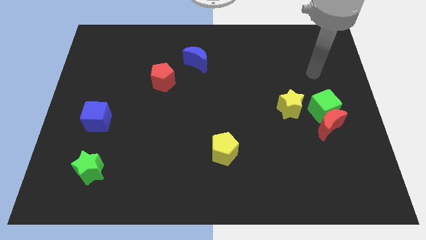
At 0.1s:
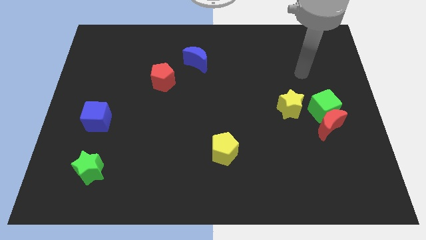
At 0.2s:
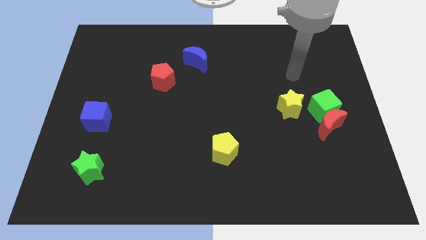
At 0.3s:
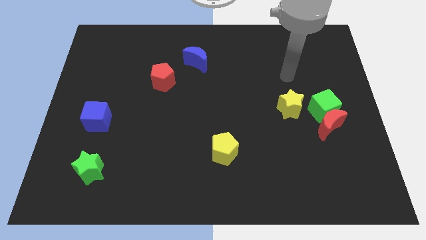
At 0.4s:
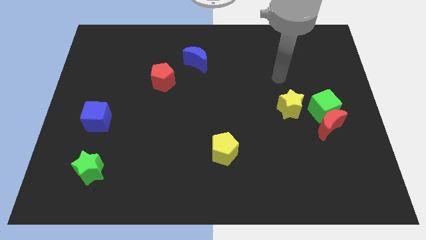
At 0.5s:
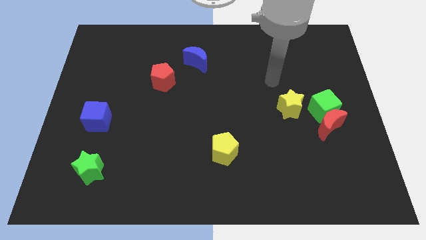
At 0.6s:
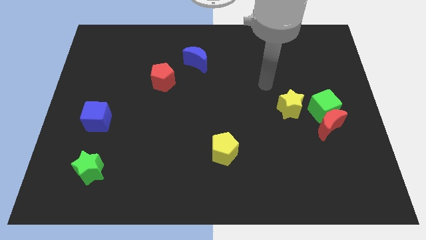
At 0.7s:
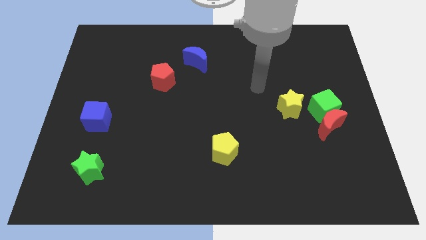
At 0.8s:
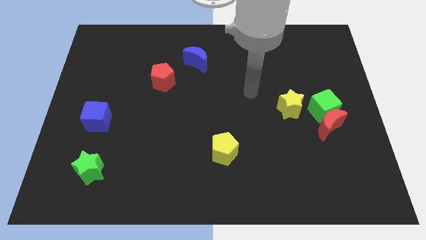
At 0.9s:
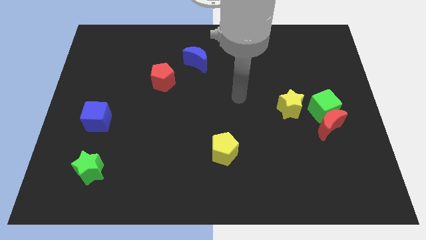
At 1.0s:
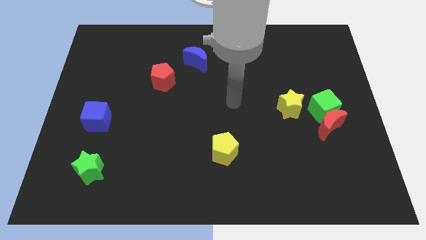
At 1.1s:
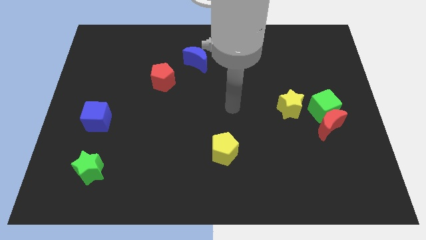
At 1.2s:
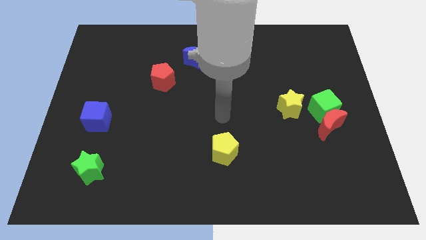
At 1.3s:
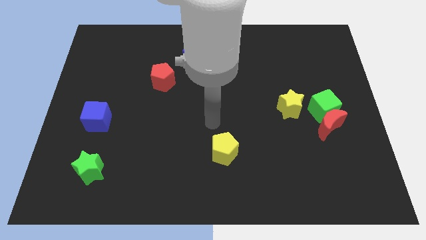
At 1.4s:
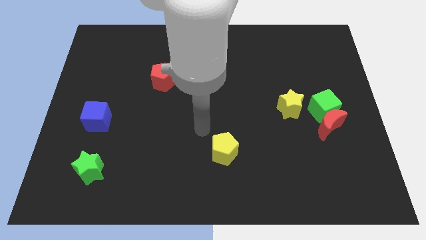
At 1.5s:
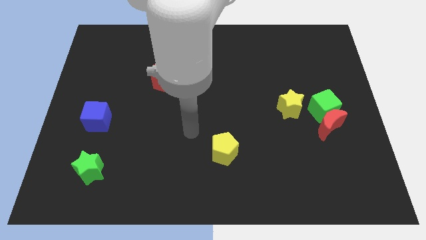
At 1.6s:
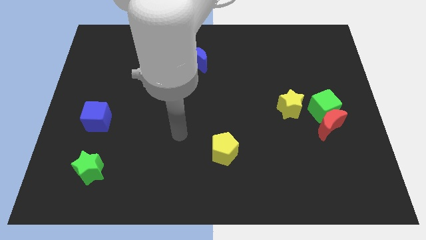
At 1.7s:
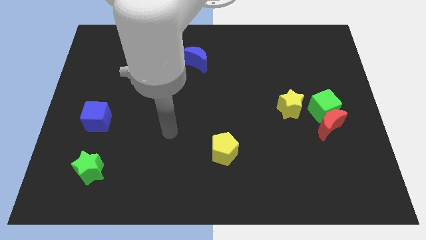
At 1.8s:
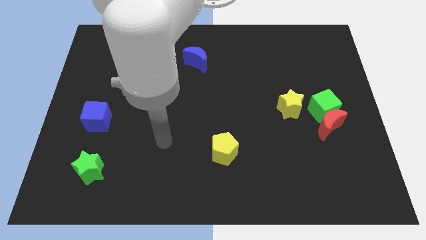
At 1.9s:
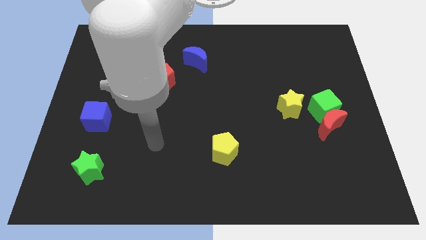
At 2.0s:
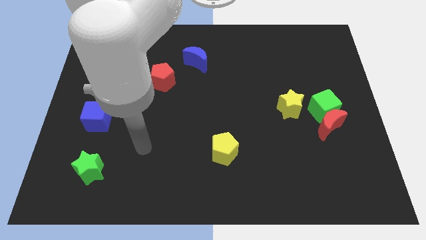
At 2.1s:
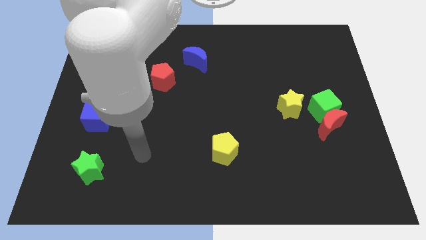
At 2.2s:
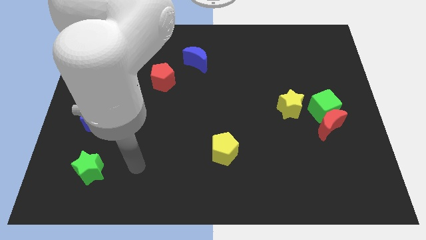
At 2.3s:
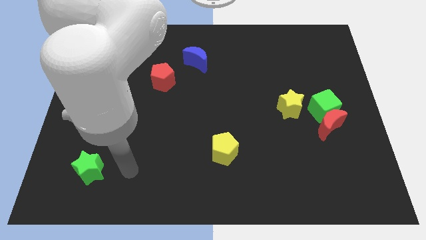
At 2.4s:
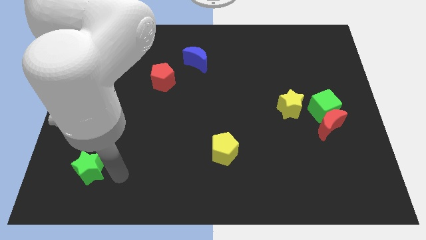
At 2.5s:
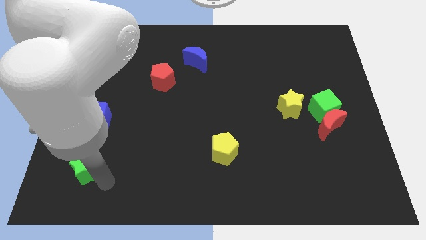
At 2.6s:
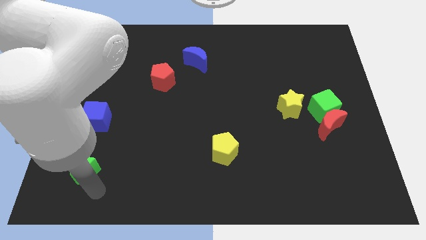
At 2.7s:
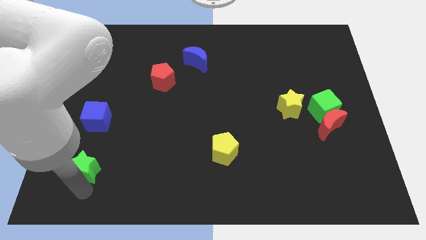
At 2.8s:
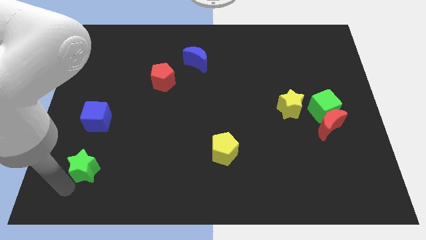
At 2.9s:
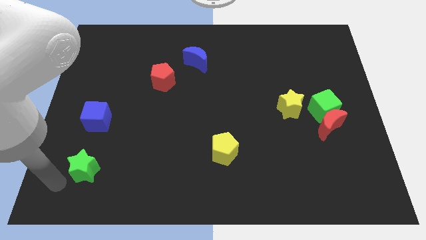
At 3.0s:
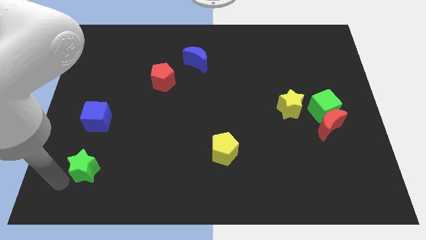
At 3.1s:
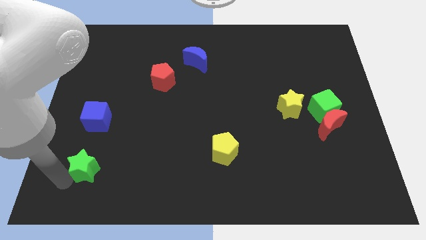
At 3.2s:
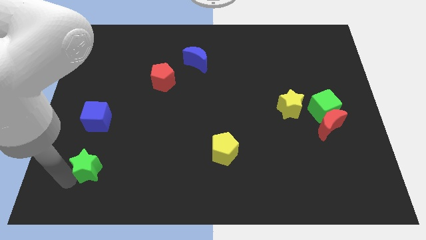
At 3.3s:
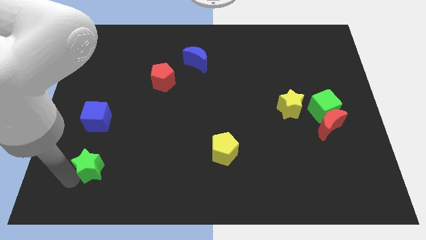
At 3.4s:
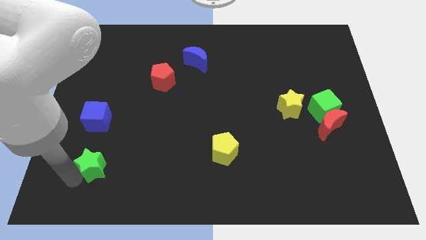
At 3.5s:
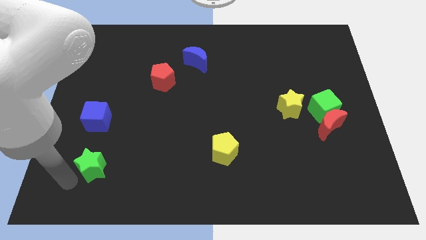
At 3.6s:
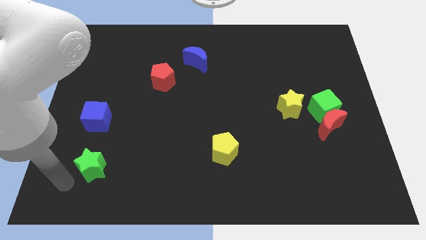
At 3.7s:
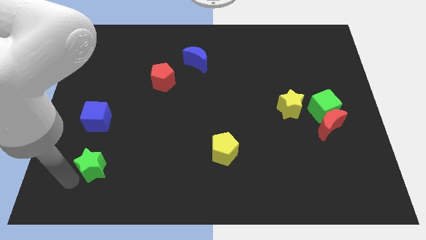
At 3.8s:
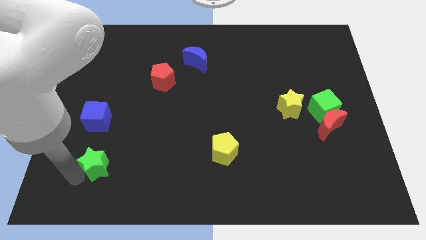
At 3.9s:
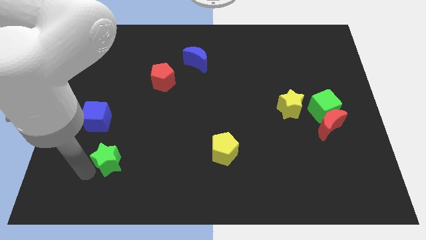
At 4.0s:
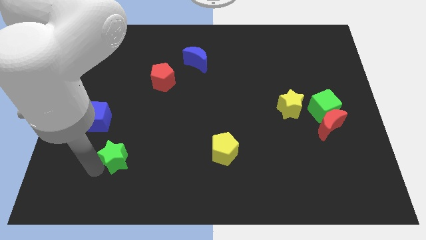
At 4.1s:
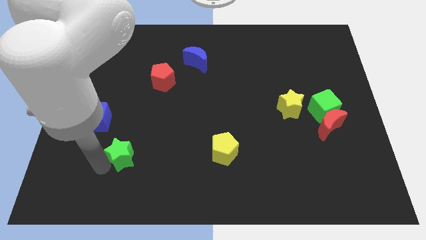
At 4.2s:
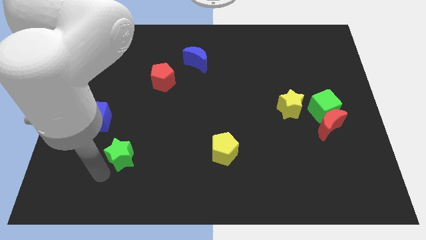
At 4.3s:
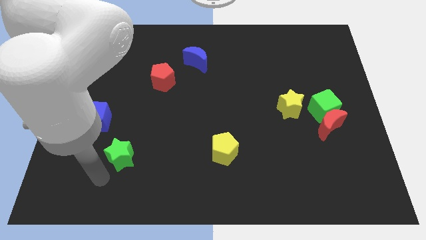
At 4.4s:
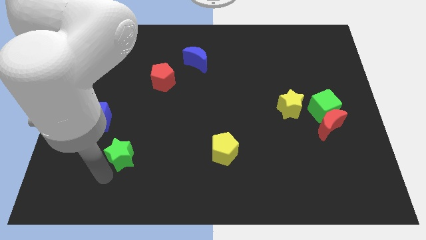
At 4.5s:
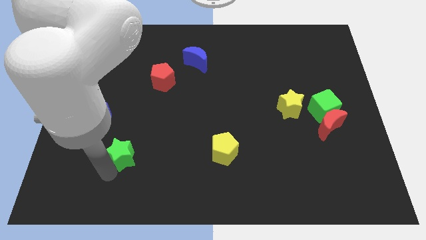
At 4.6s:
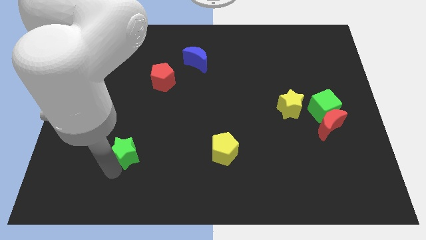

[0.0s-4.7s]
move the green star diagonally up and right slightly

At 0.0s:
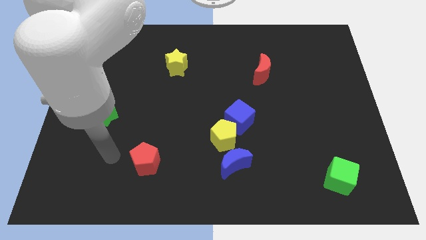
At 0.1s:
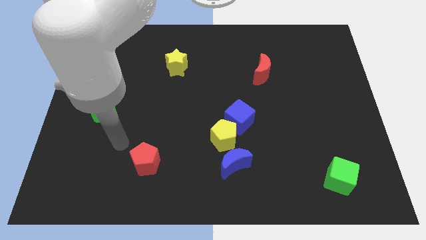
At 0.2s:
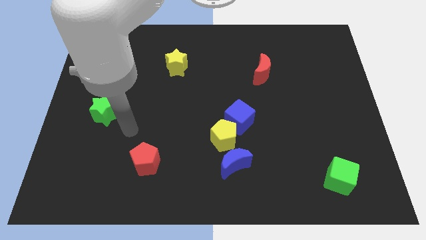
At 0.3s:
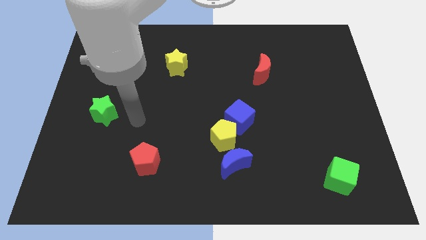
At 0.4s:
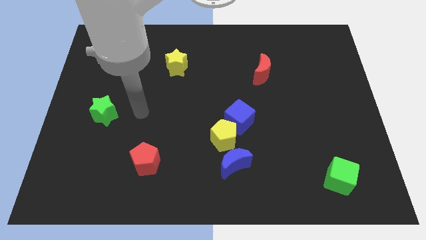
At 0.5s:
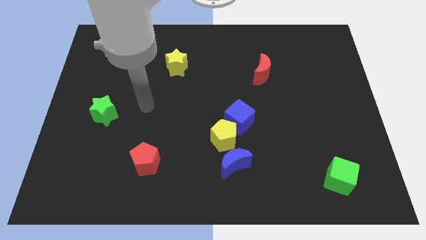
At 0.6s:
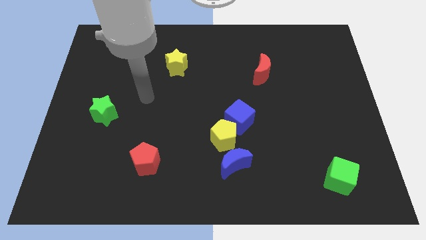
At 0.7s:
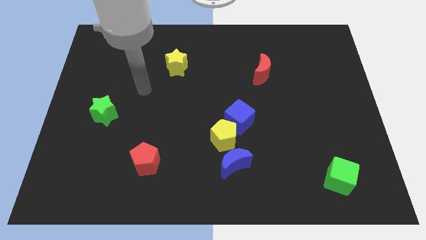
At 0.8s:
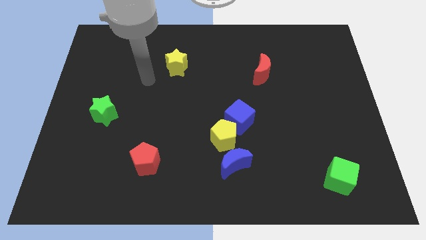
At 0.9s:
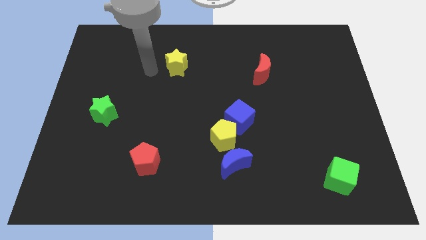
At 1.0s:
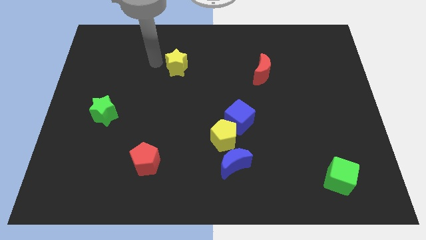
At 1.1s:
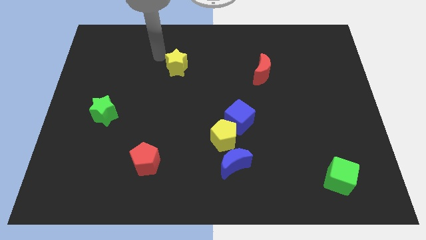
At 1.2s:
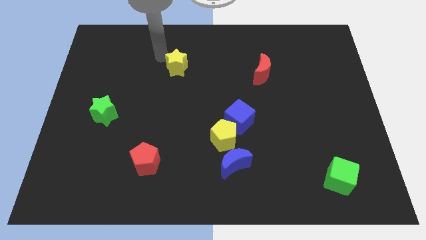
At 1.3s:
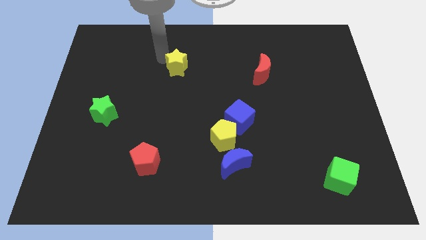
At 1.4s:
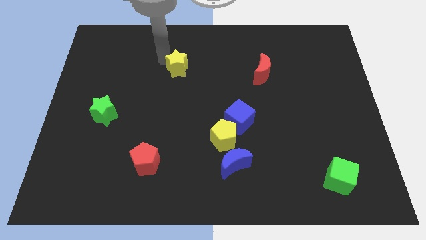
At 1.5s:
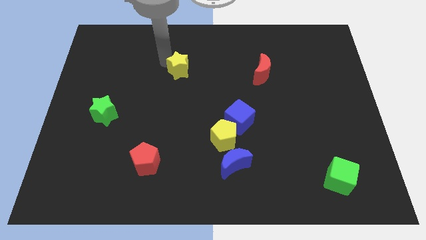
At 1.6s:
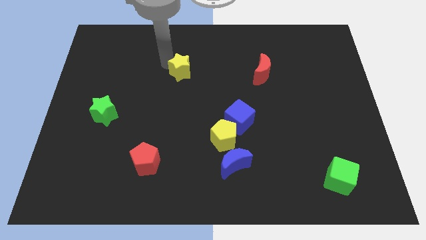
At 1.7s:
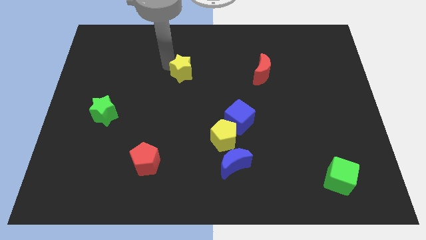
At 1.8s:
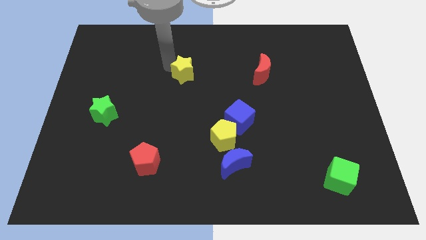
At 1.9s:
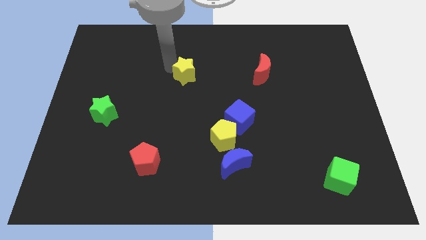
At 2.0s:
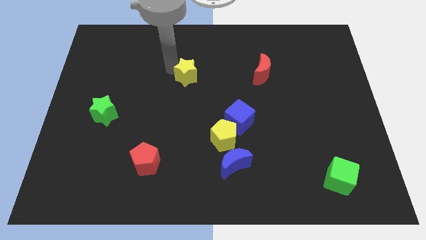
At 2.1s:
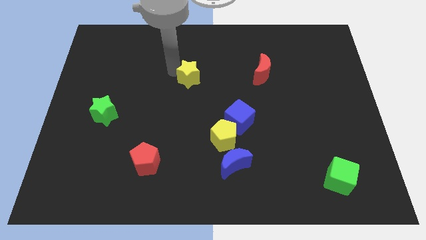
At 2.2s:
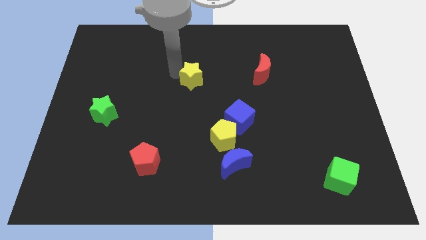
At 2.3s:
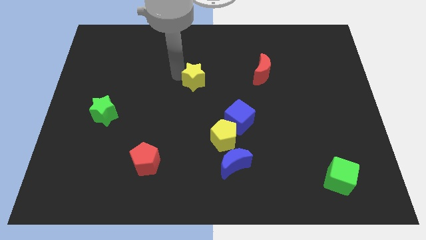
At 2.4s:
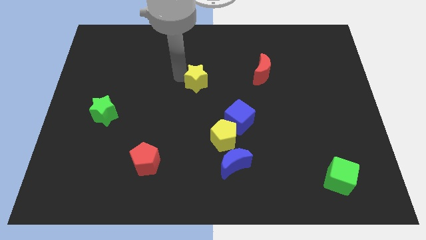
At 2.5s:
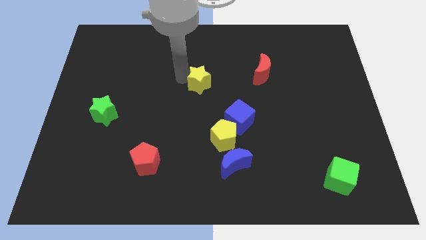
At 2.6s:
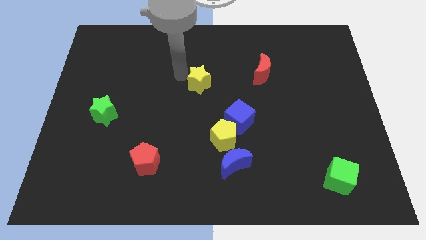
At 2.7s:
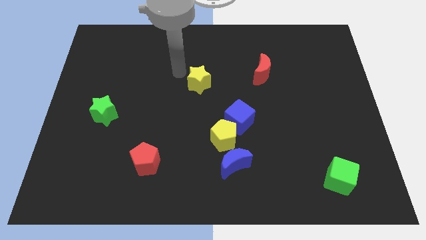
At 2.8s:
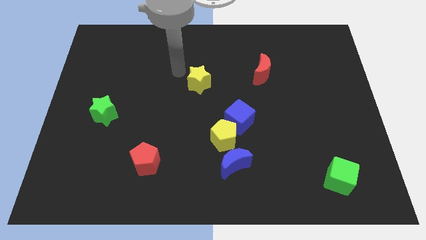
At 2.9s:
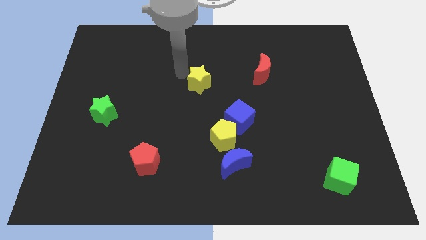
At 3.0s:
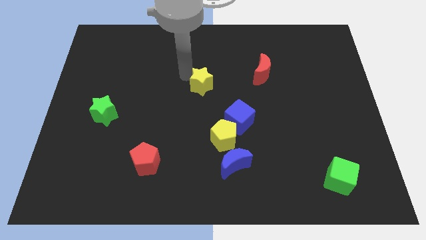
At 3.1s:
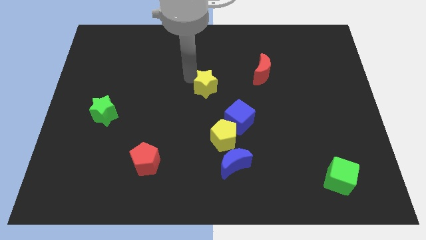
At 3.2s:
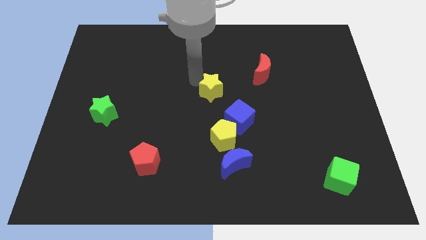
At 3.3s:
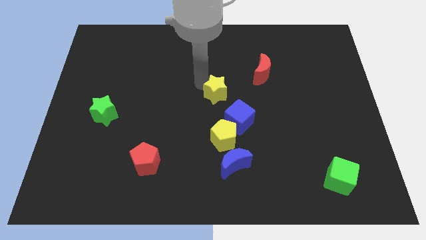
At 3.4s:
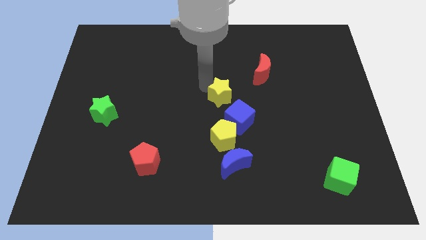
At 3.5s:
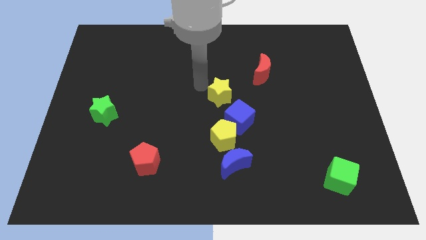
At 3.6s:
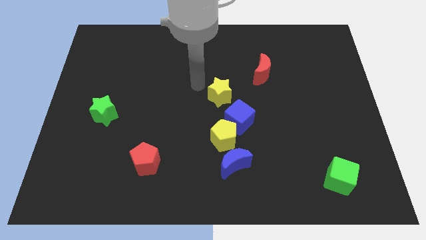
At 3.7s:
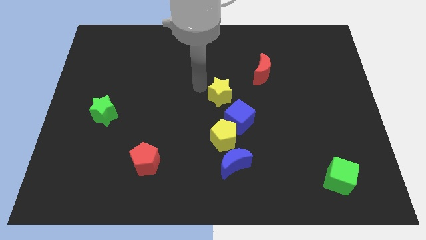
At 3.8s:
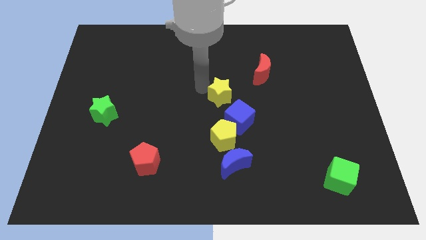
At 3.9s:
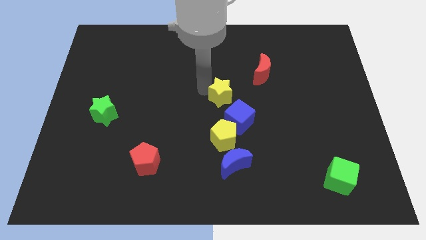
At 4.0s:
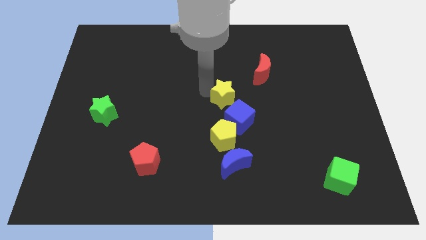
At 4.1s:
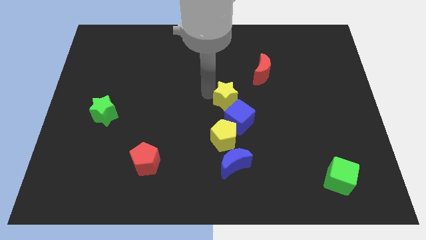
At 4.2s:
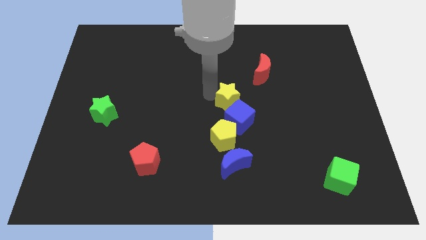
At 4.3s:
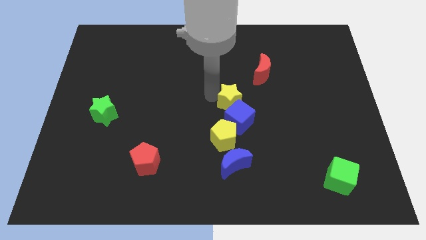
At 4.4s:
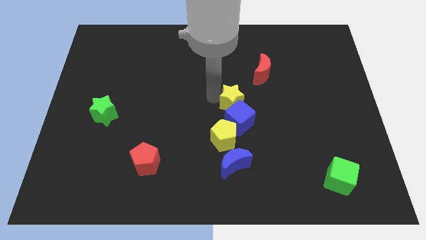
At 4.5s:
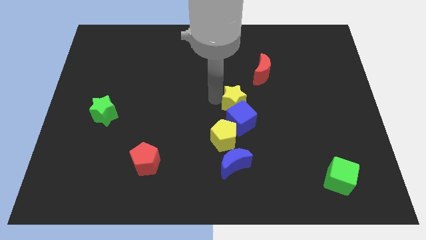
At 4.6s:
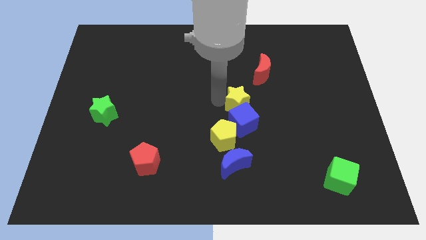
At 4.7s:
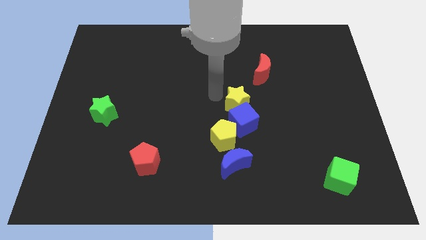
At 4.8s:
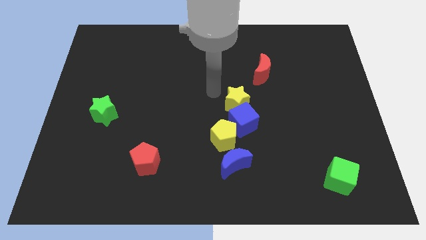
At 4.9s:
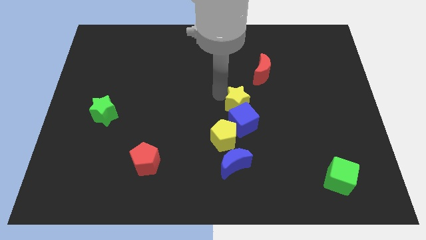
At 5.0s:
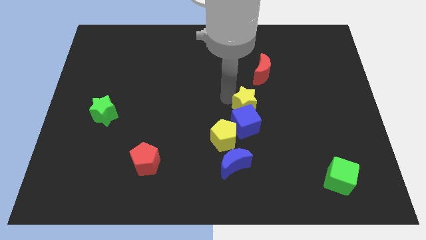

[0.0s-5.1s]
slide the yellow star down and to the right diagonally
